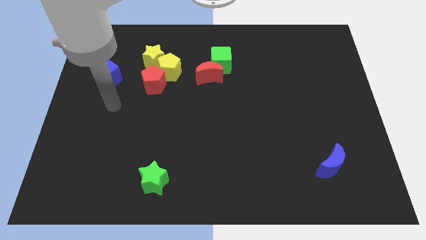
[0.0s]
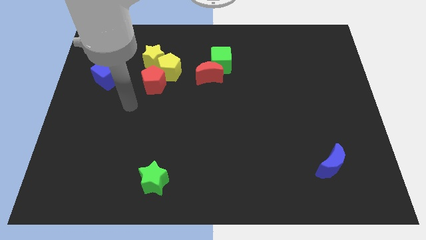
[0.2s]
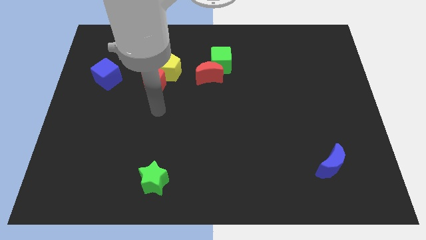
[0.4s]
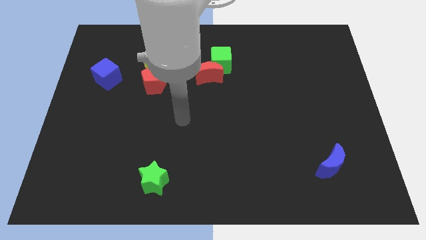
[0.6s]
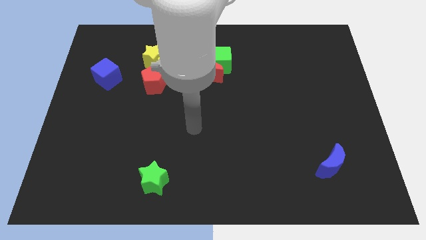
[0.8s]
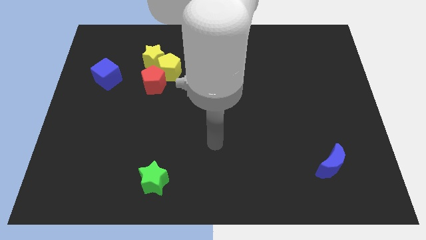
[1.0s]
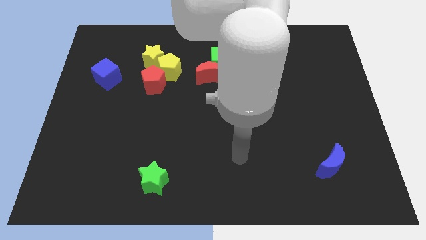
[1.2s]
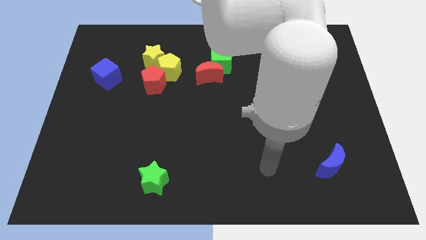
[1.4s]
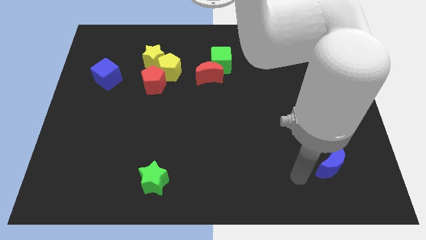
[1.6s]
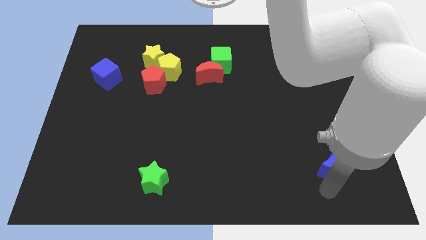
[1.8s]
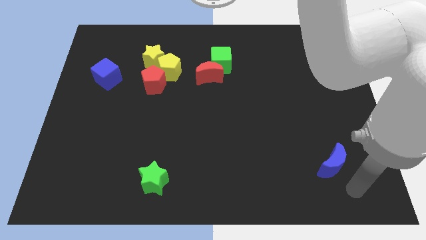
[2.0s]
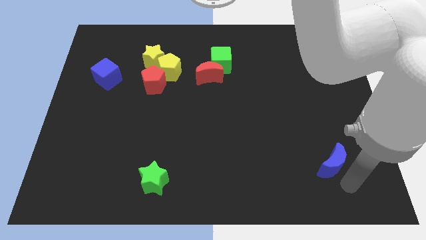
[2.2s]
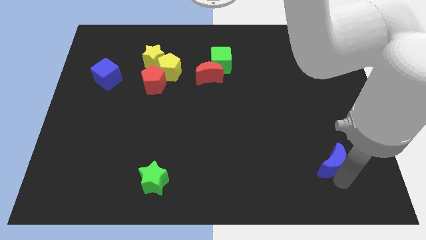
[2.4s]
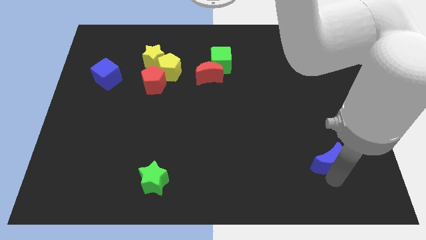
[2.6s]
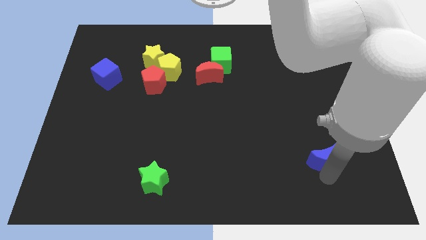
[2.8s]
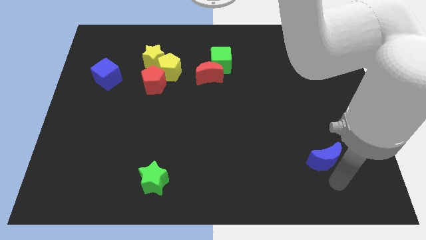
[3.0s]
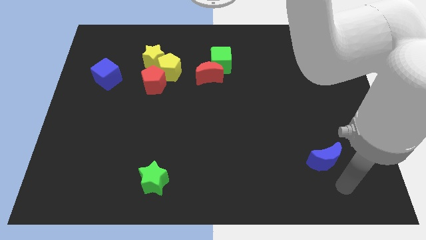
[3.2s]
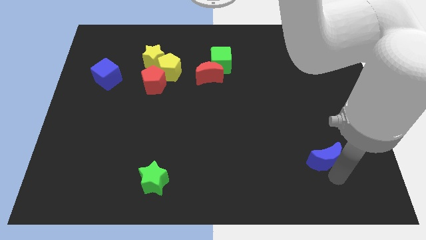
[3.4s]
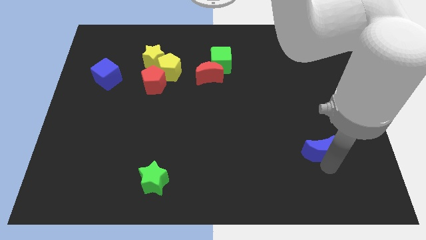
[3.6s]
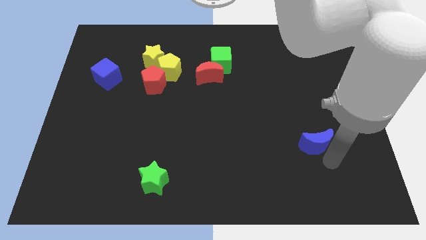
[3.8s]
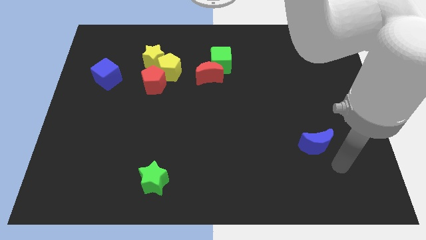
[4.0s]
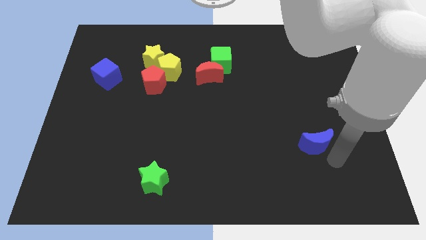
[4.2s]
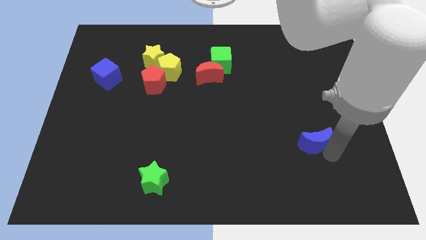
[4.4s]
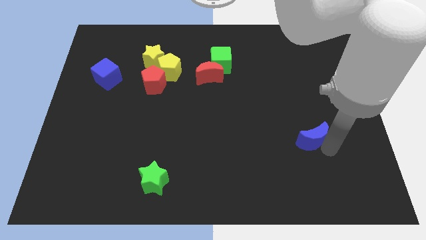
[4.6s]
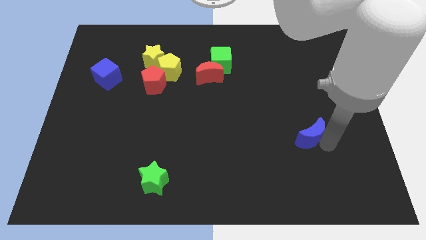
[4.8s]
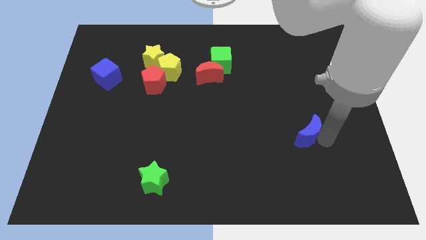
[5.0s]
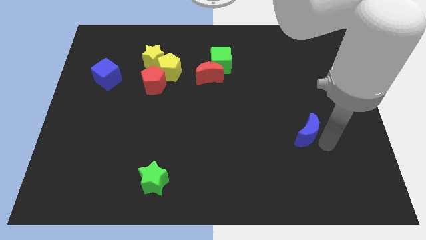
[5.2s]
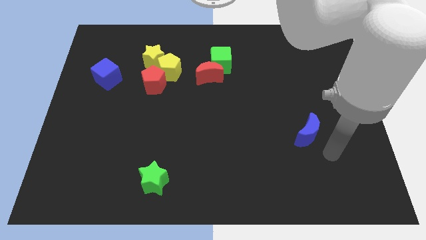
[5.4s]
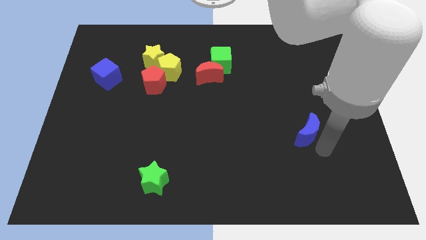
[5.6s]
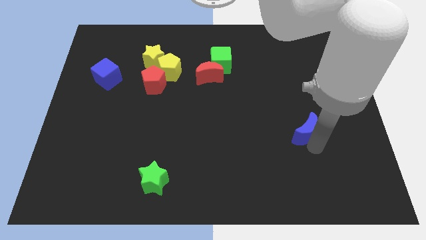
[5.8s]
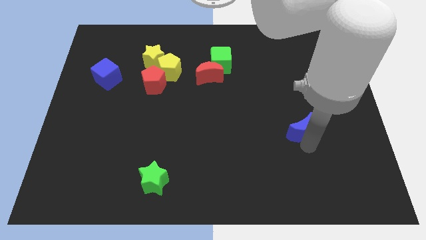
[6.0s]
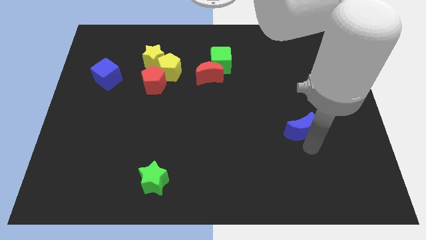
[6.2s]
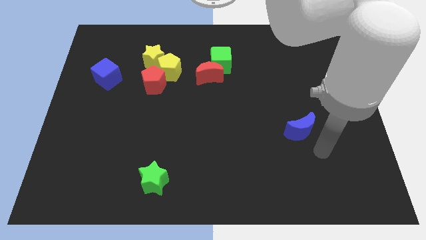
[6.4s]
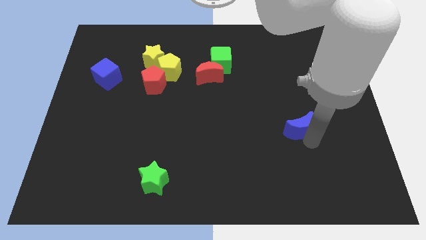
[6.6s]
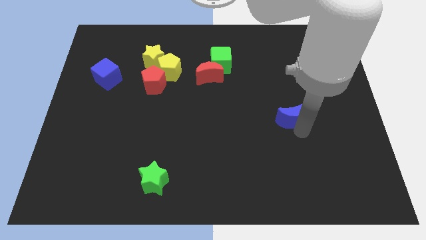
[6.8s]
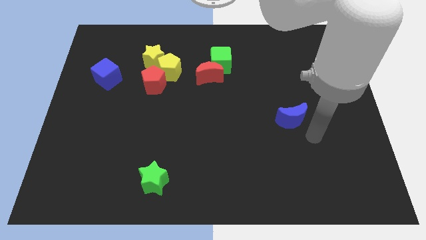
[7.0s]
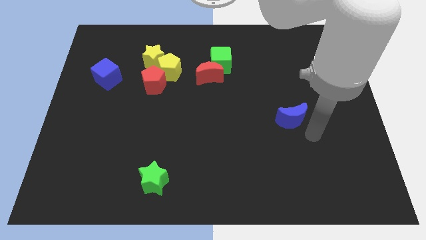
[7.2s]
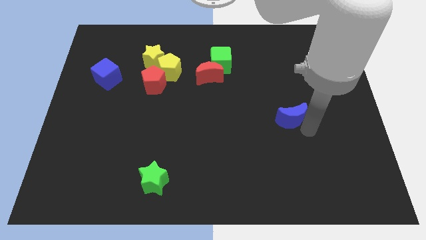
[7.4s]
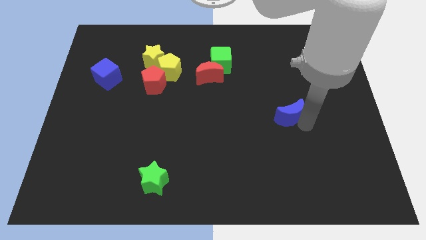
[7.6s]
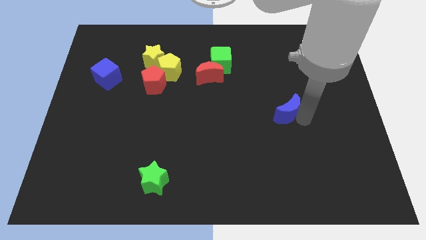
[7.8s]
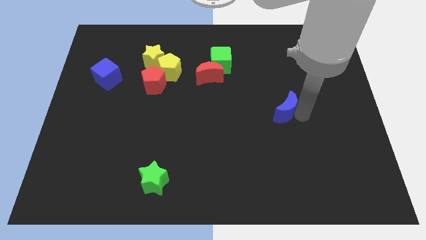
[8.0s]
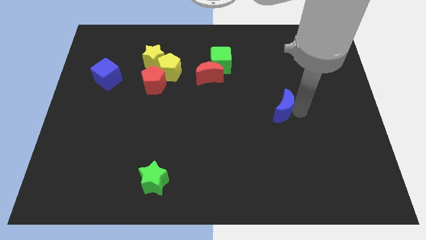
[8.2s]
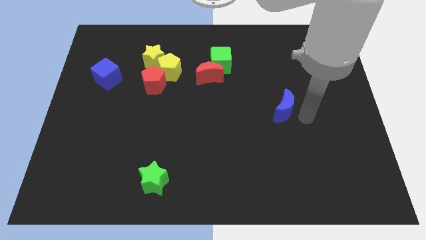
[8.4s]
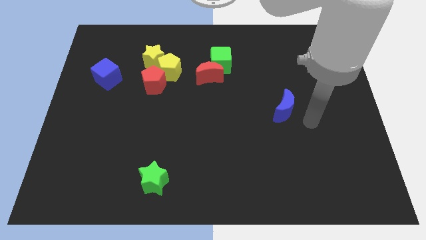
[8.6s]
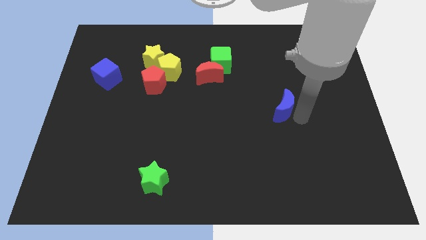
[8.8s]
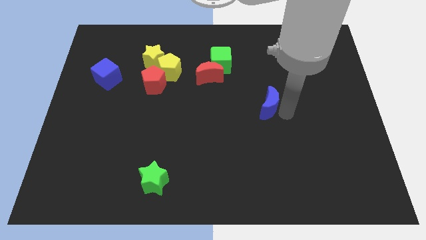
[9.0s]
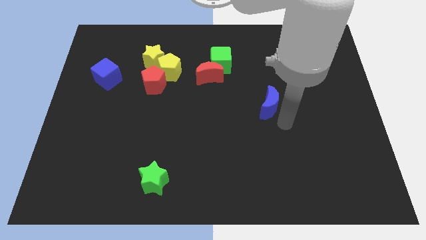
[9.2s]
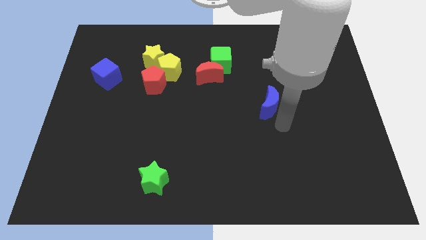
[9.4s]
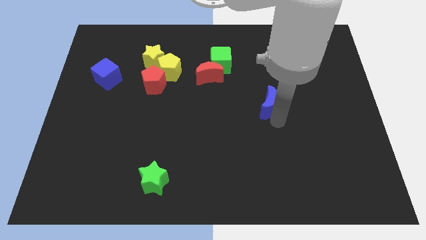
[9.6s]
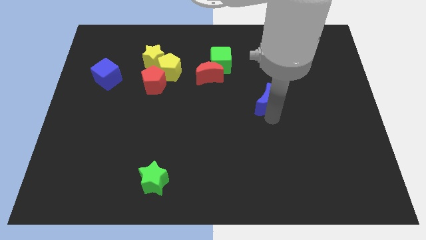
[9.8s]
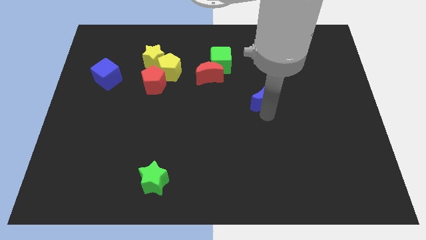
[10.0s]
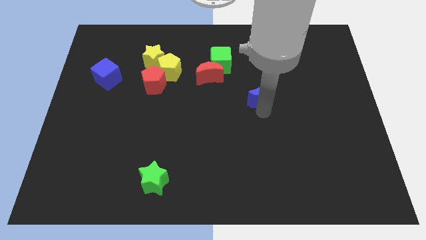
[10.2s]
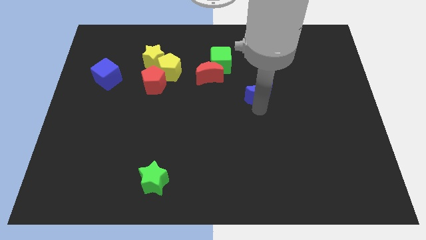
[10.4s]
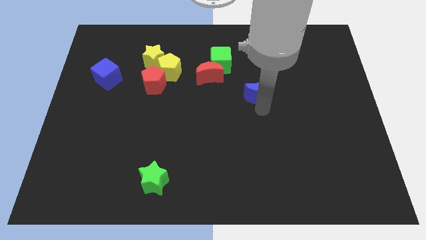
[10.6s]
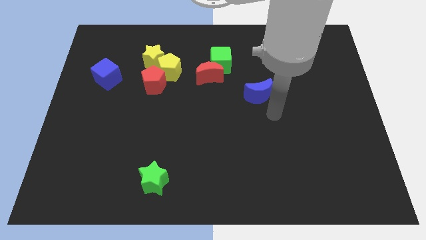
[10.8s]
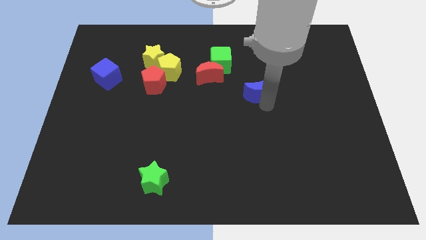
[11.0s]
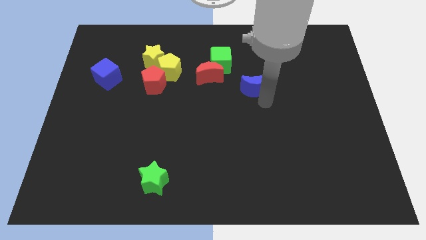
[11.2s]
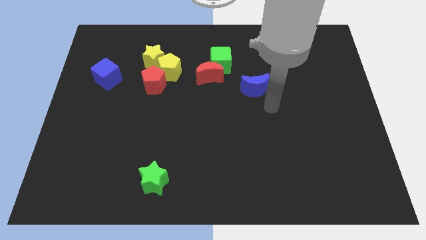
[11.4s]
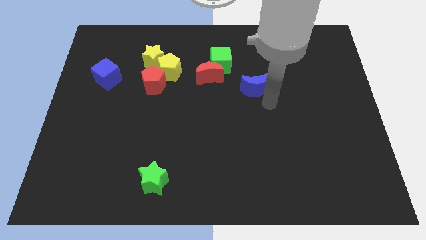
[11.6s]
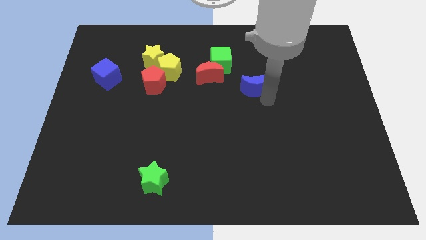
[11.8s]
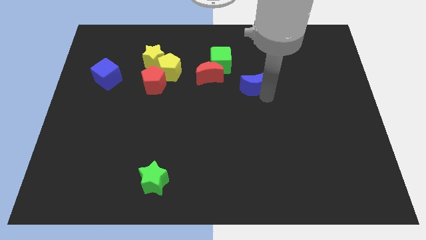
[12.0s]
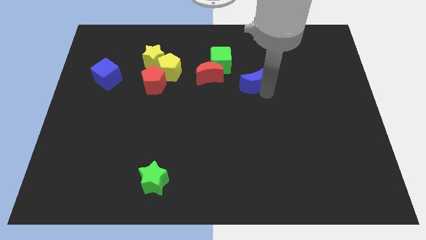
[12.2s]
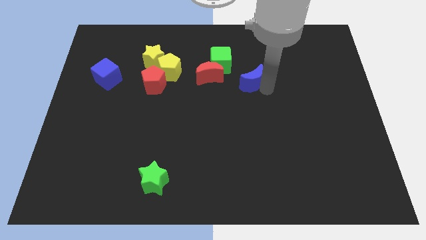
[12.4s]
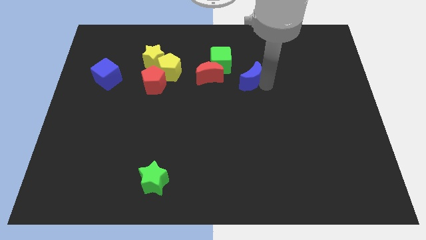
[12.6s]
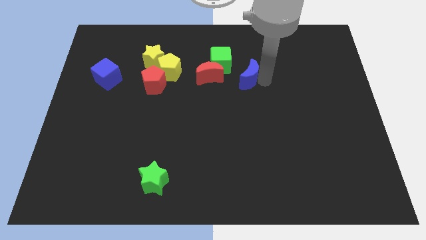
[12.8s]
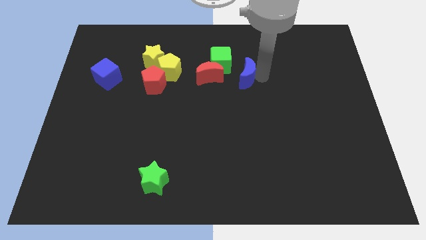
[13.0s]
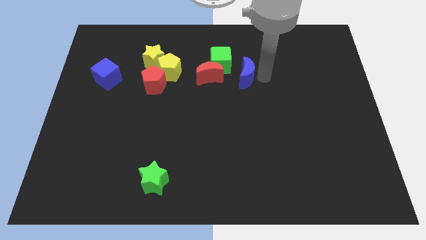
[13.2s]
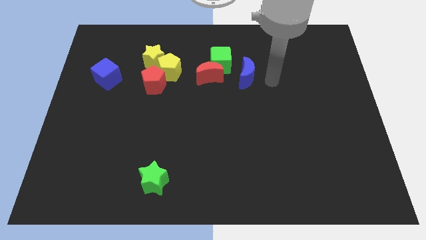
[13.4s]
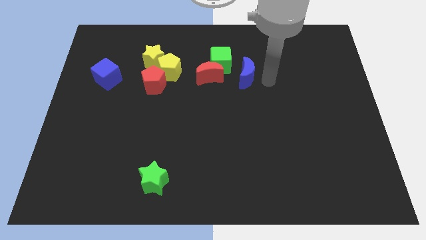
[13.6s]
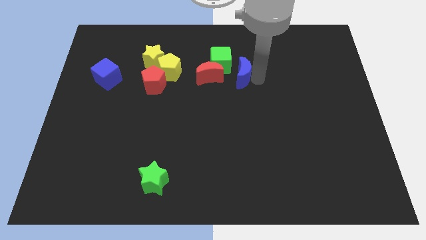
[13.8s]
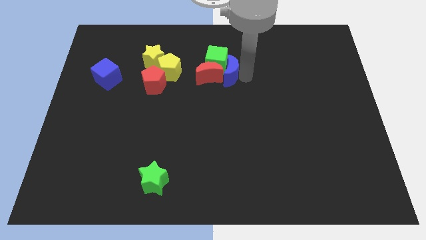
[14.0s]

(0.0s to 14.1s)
push the blue moon towards the red moon
